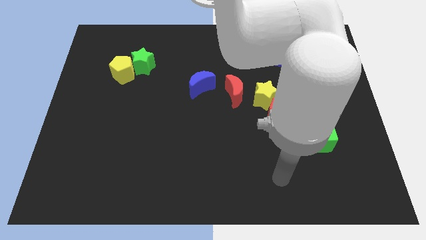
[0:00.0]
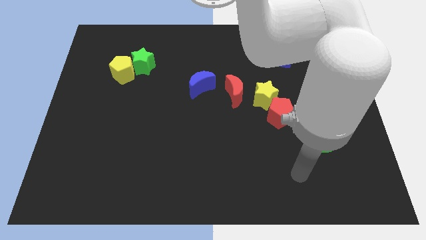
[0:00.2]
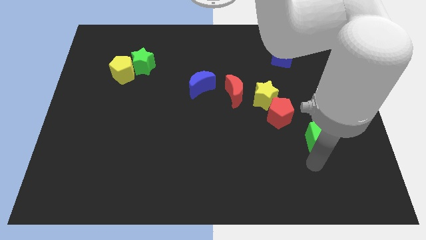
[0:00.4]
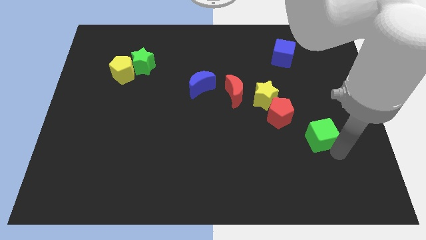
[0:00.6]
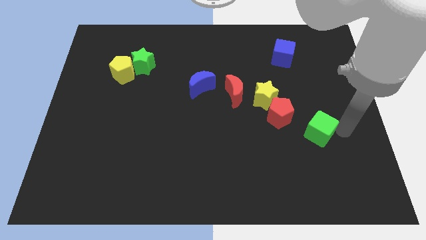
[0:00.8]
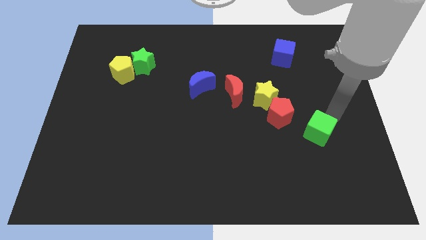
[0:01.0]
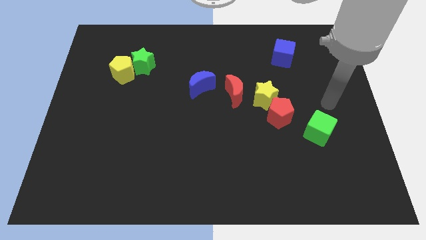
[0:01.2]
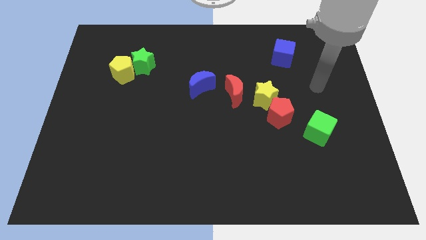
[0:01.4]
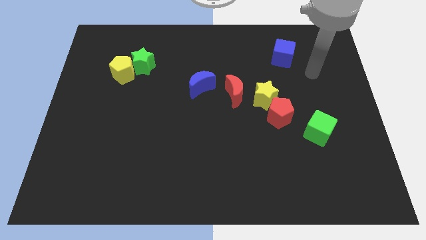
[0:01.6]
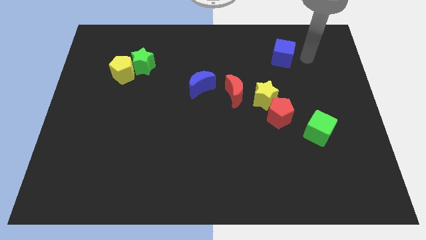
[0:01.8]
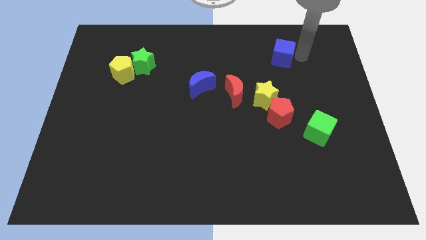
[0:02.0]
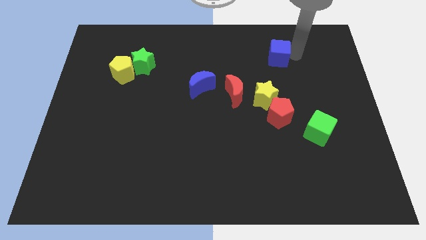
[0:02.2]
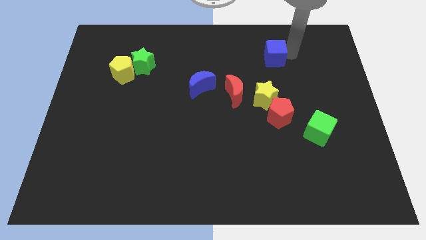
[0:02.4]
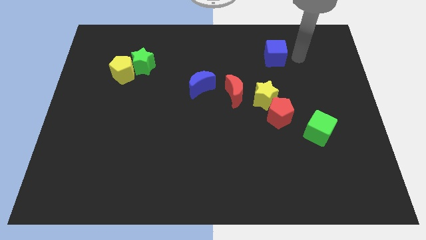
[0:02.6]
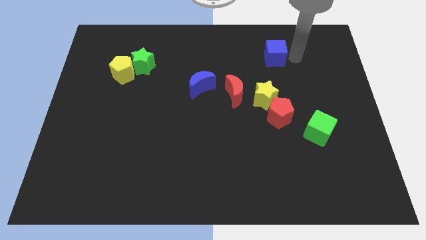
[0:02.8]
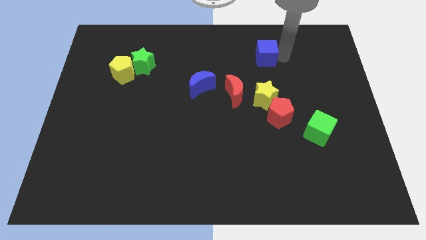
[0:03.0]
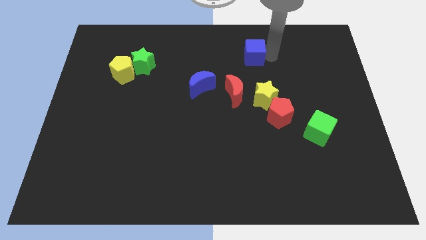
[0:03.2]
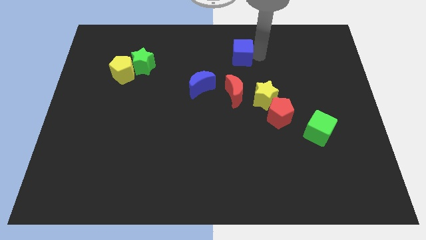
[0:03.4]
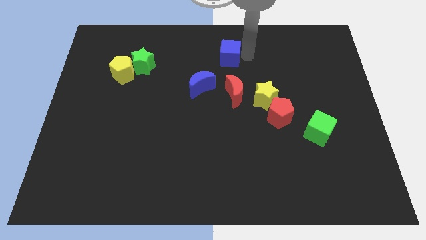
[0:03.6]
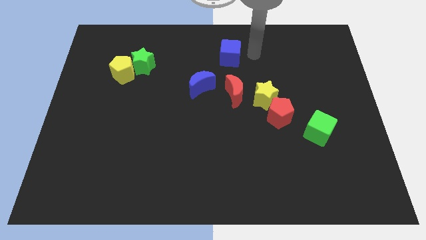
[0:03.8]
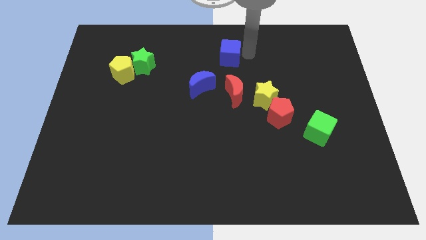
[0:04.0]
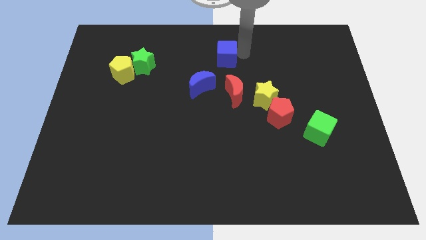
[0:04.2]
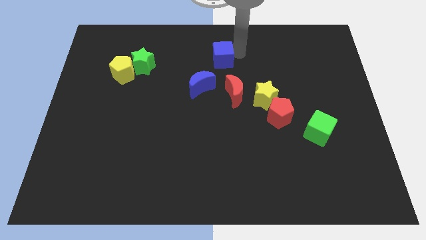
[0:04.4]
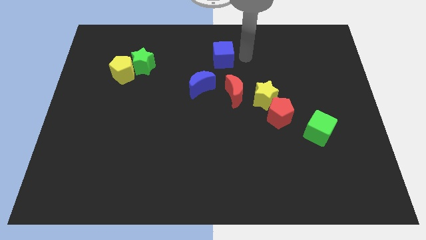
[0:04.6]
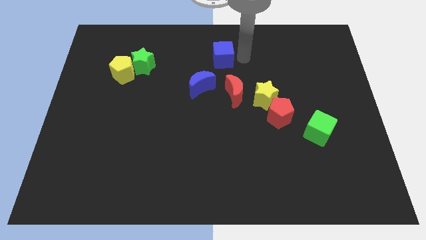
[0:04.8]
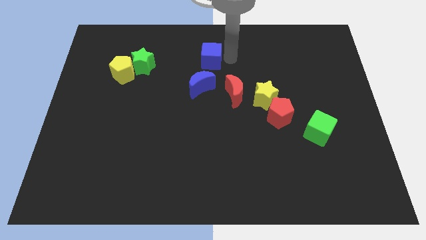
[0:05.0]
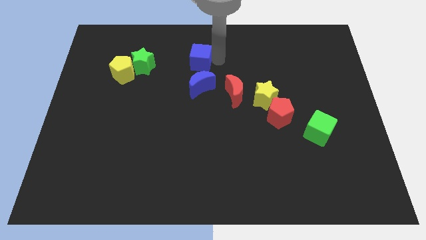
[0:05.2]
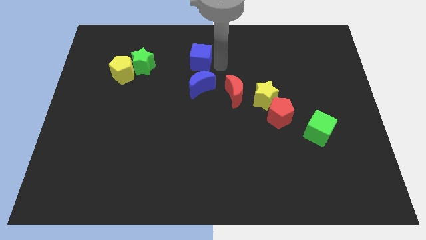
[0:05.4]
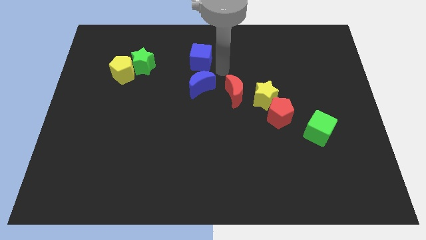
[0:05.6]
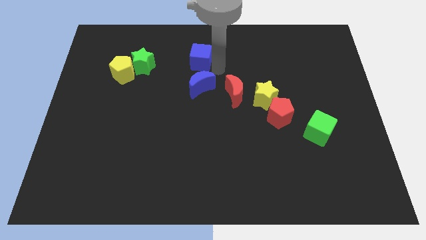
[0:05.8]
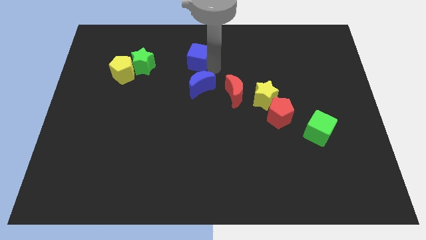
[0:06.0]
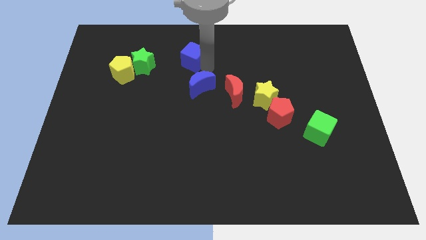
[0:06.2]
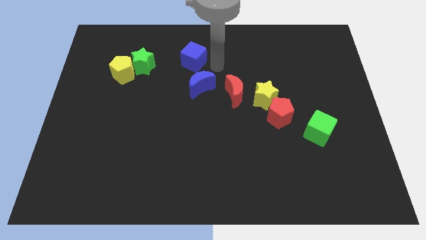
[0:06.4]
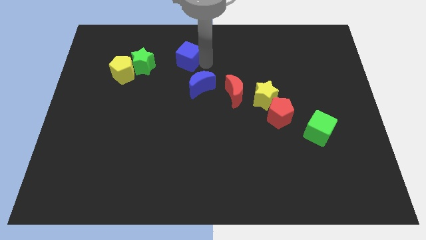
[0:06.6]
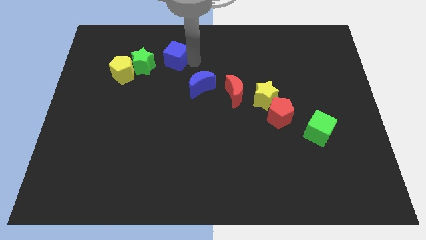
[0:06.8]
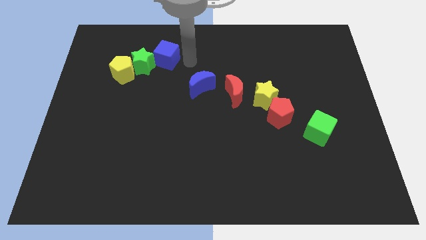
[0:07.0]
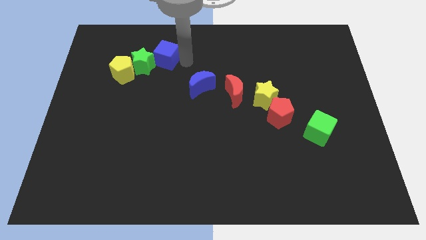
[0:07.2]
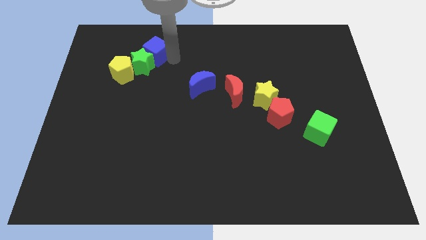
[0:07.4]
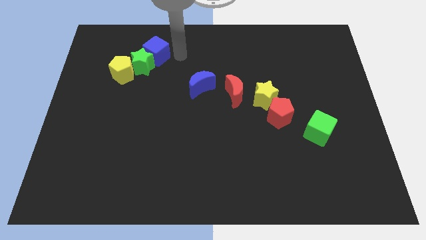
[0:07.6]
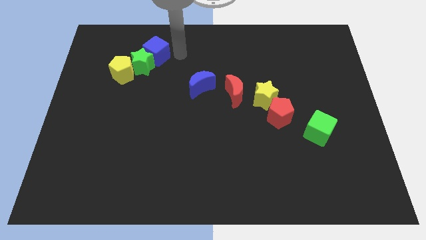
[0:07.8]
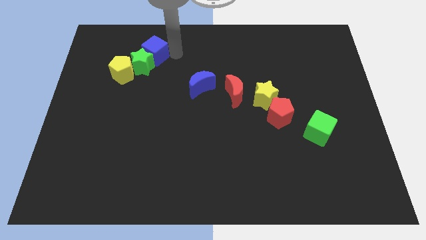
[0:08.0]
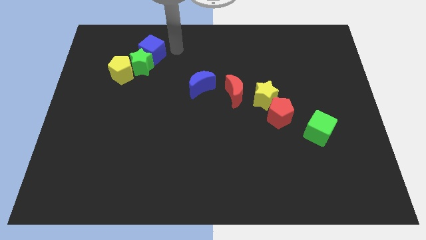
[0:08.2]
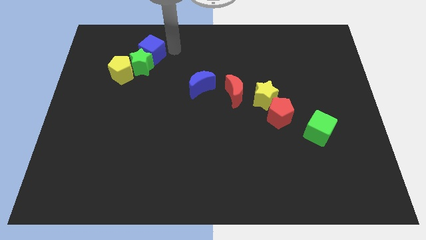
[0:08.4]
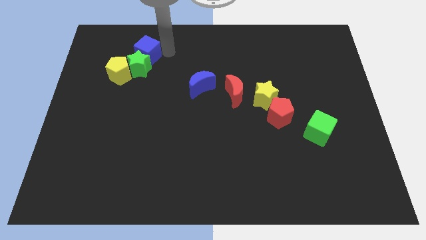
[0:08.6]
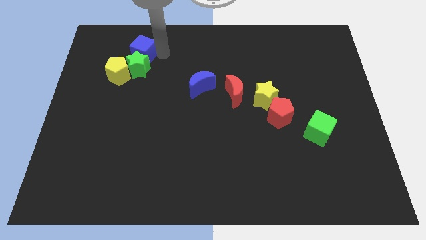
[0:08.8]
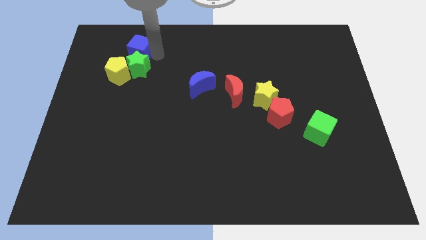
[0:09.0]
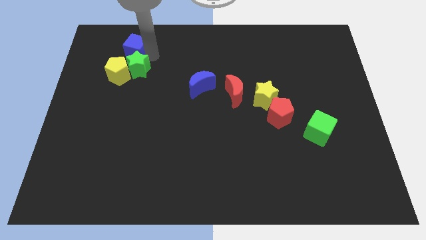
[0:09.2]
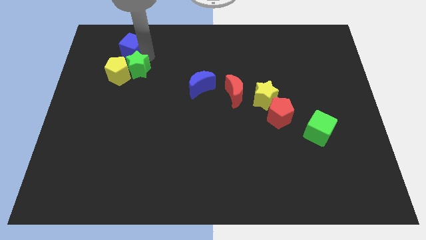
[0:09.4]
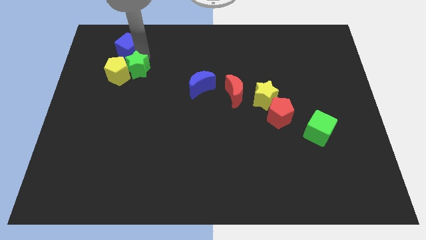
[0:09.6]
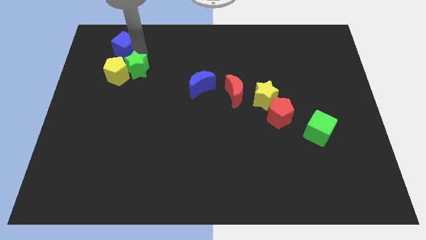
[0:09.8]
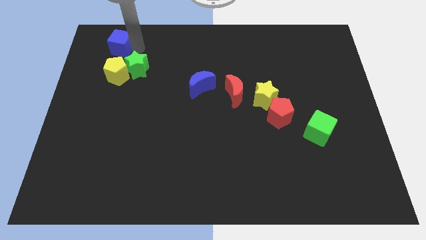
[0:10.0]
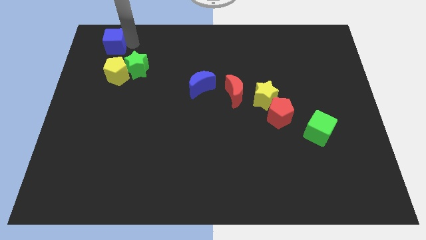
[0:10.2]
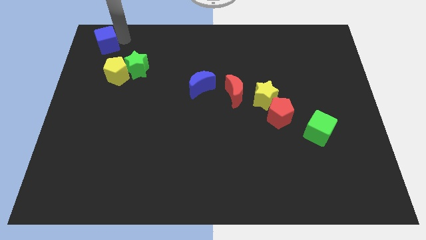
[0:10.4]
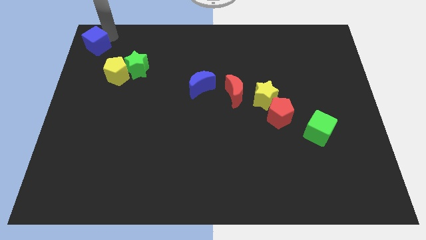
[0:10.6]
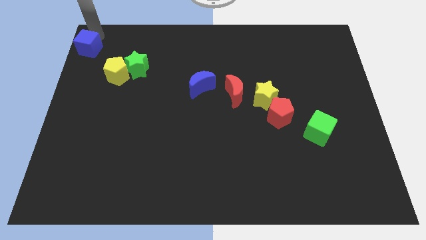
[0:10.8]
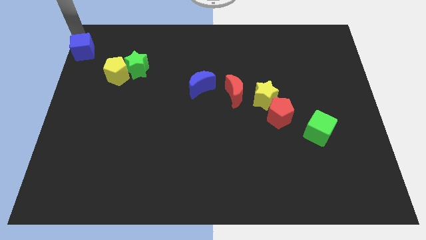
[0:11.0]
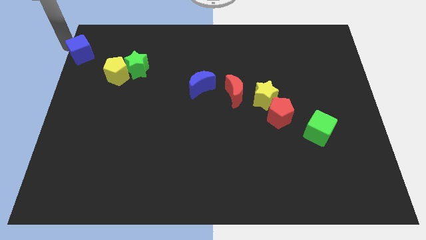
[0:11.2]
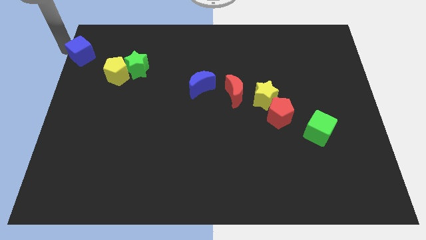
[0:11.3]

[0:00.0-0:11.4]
slide the blue cube to the top left of the yellow pentagon

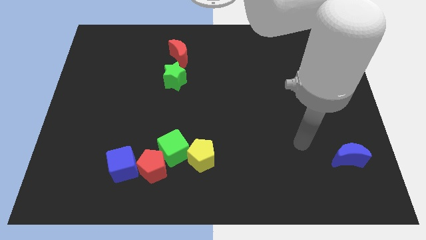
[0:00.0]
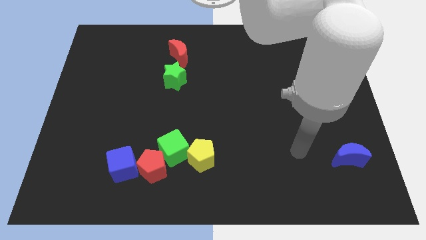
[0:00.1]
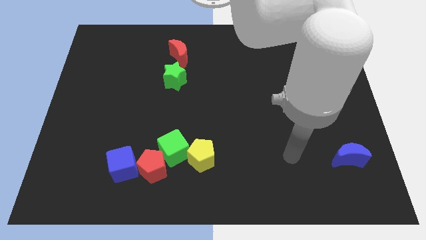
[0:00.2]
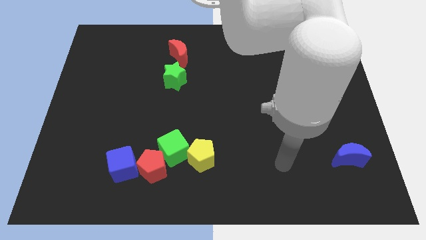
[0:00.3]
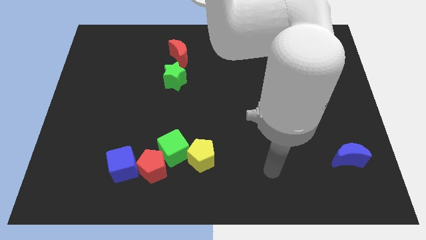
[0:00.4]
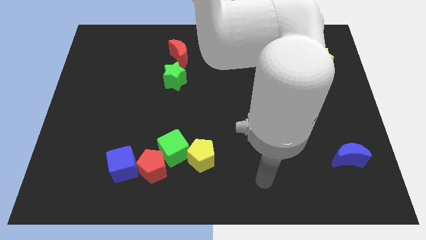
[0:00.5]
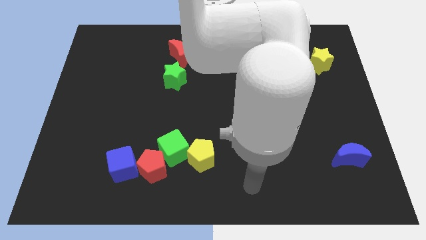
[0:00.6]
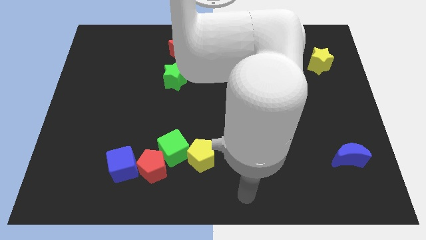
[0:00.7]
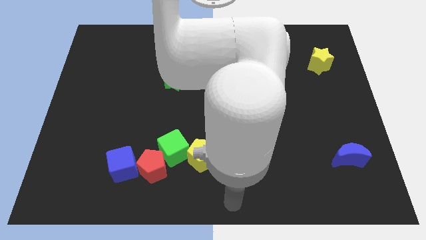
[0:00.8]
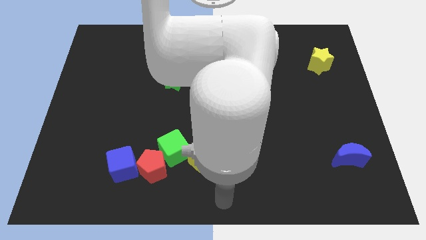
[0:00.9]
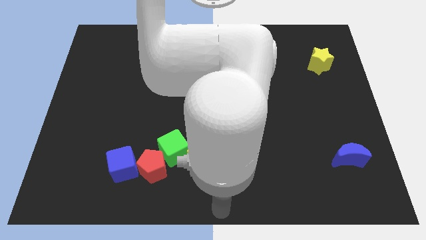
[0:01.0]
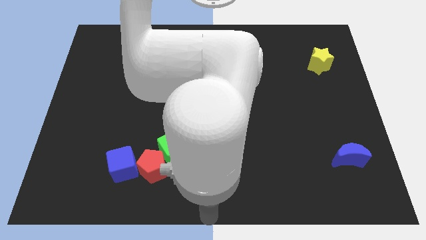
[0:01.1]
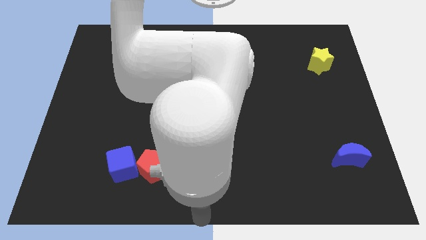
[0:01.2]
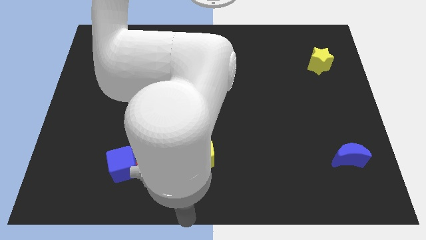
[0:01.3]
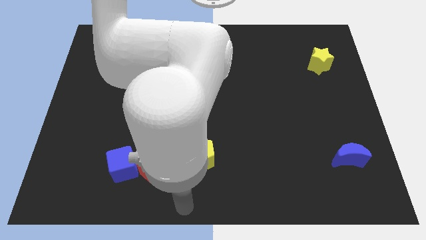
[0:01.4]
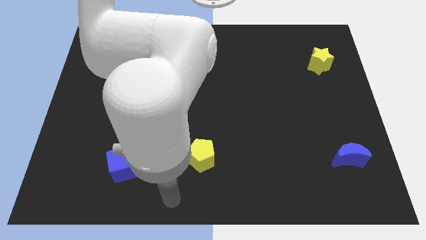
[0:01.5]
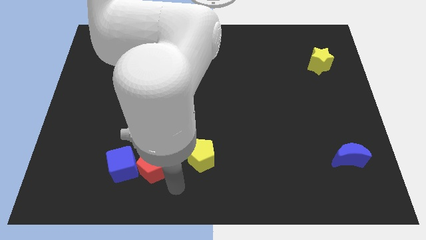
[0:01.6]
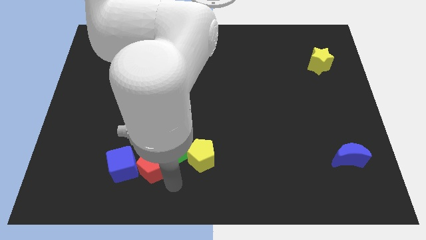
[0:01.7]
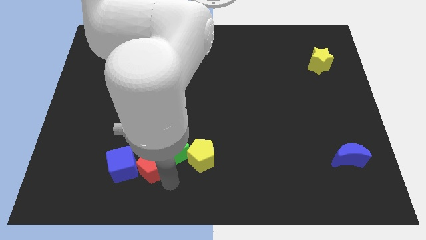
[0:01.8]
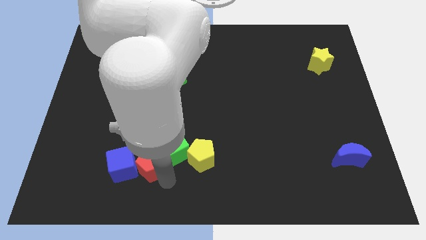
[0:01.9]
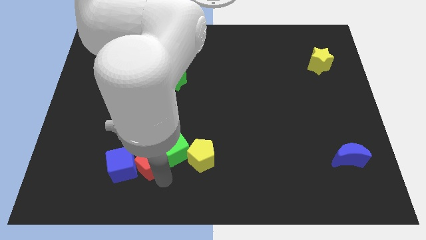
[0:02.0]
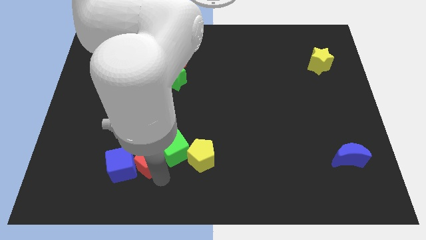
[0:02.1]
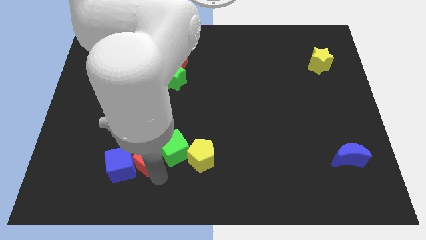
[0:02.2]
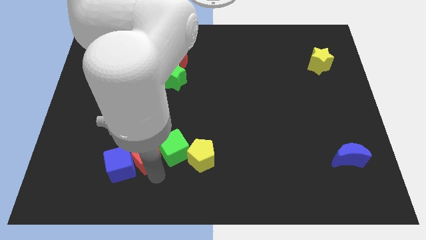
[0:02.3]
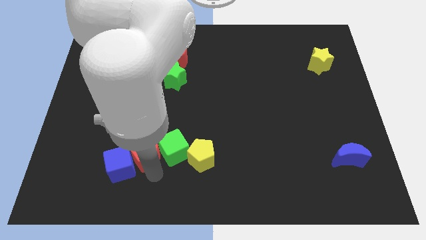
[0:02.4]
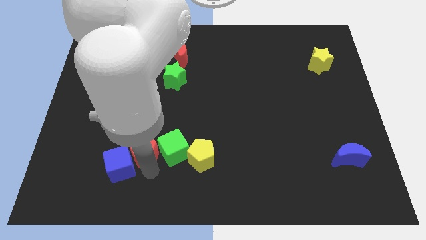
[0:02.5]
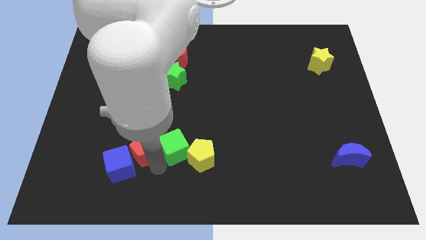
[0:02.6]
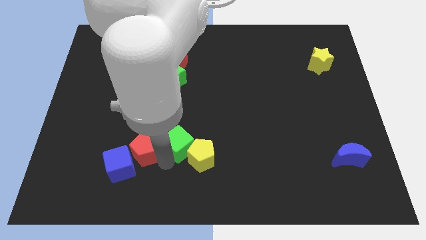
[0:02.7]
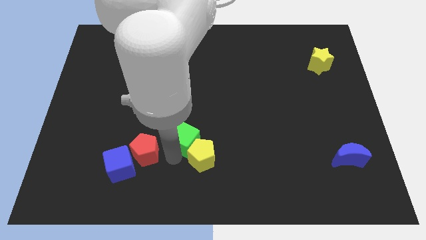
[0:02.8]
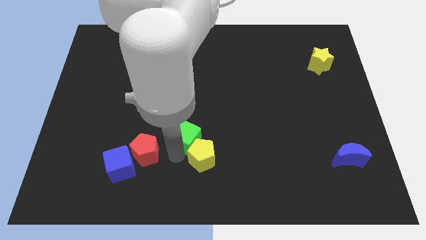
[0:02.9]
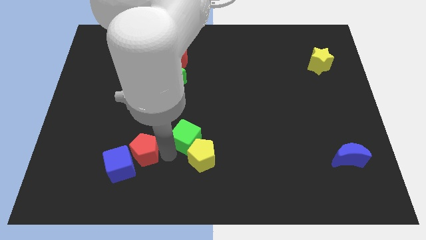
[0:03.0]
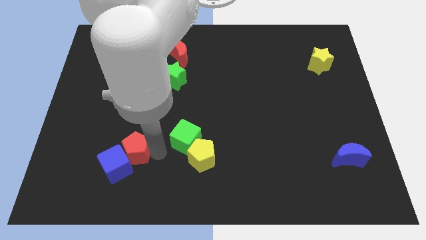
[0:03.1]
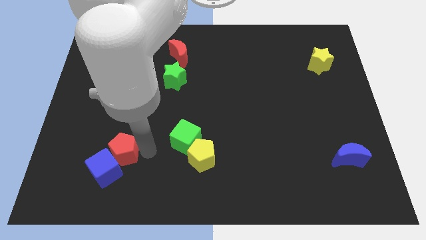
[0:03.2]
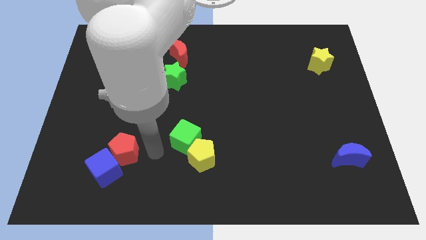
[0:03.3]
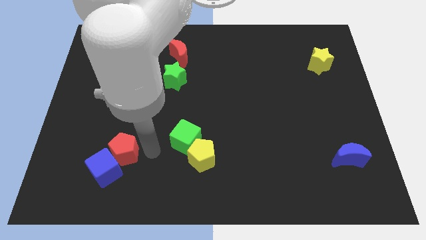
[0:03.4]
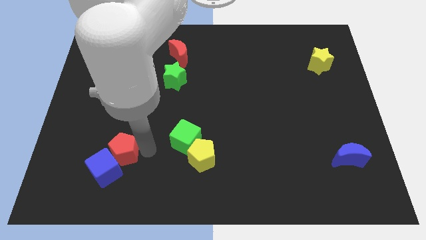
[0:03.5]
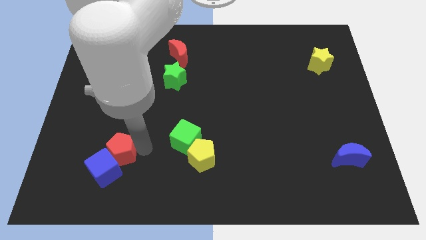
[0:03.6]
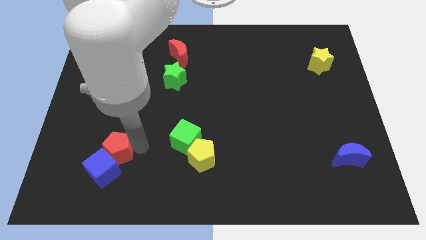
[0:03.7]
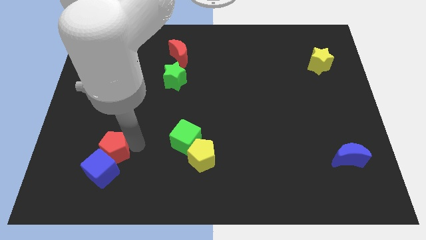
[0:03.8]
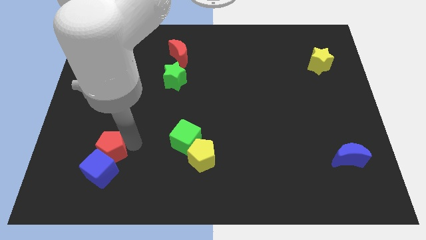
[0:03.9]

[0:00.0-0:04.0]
put the red pentagon to the top left of the blue cube
